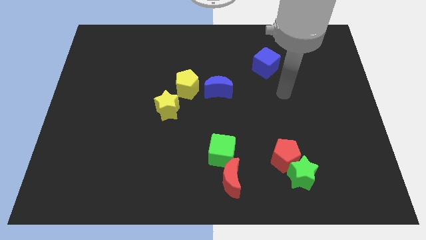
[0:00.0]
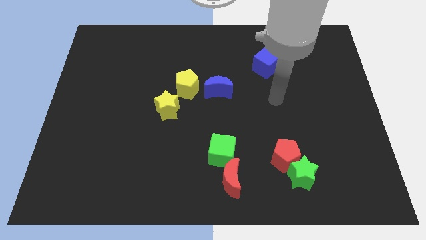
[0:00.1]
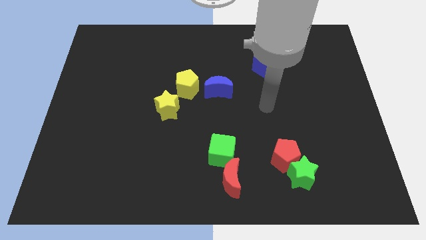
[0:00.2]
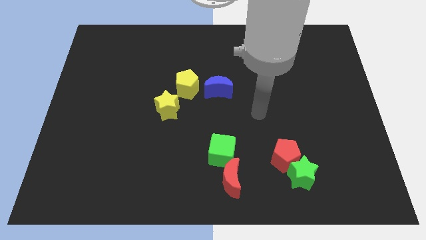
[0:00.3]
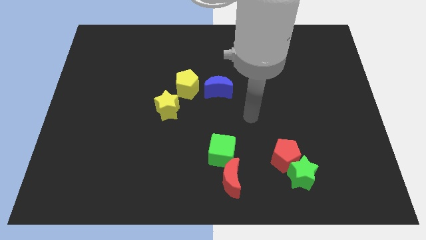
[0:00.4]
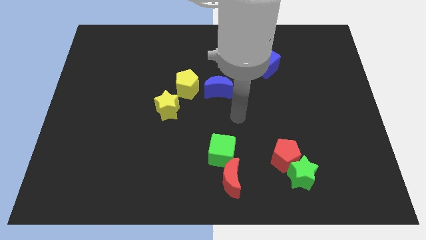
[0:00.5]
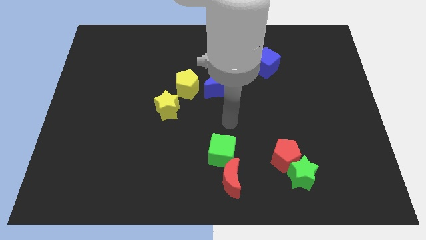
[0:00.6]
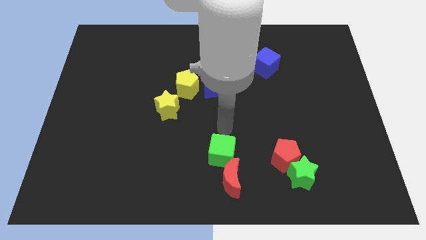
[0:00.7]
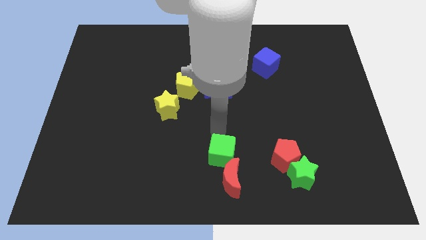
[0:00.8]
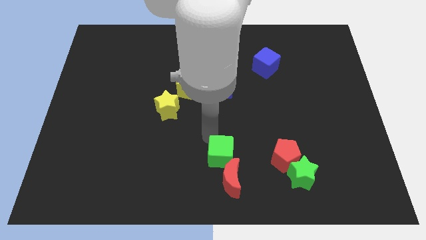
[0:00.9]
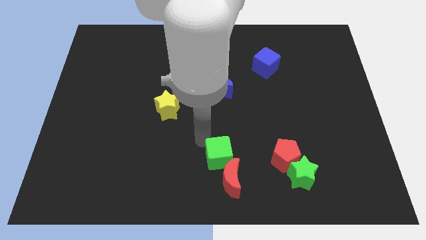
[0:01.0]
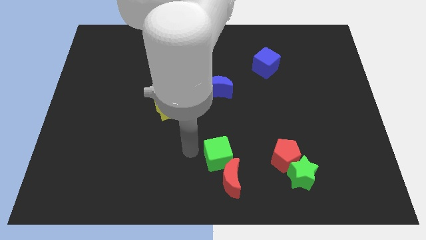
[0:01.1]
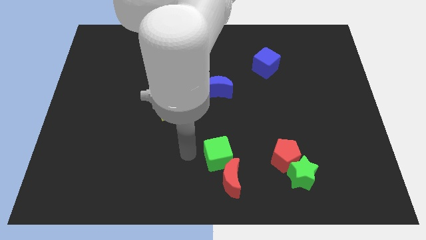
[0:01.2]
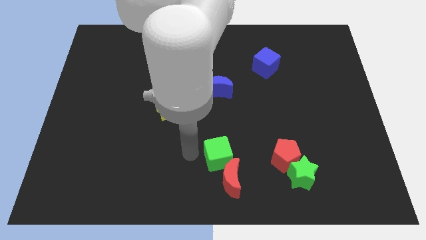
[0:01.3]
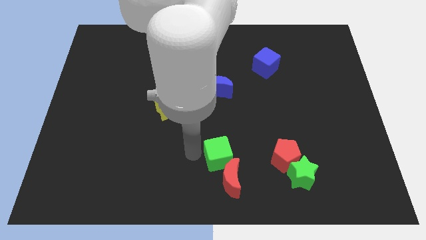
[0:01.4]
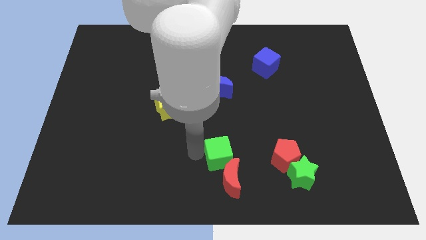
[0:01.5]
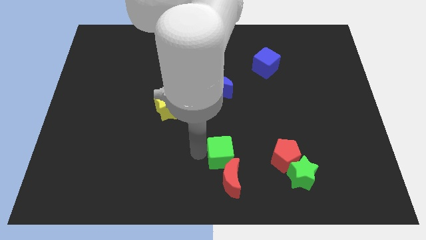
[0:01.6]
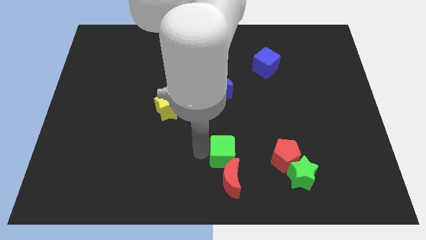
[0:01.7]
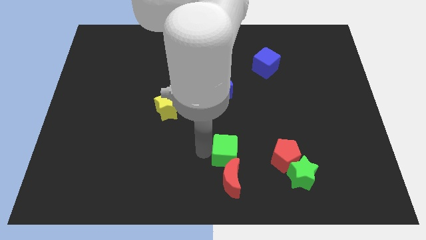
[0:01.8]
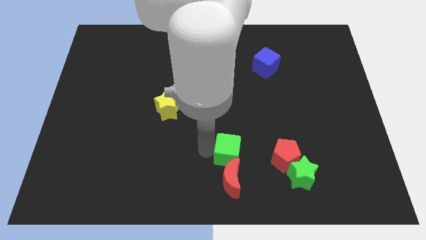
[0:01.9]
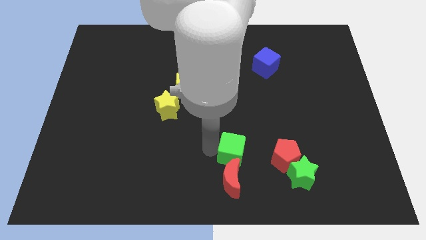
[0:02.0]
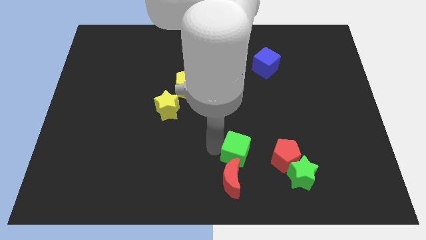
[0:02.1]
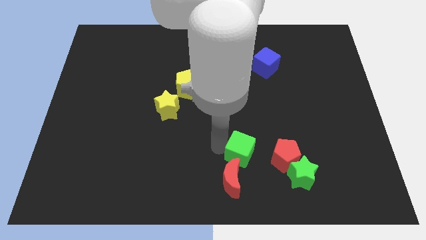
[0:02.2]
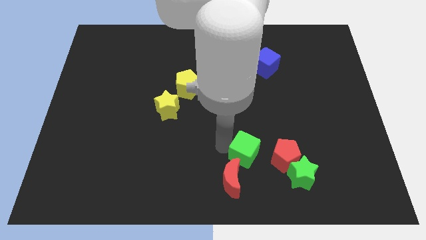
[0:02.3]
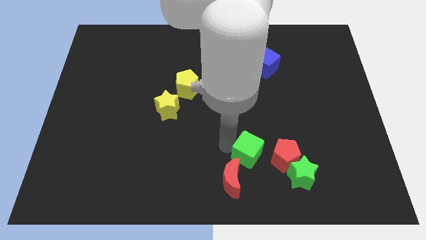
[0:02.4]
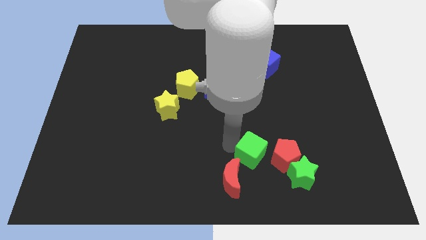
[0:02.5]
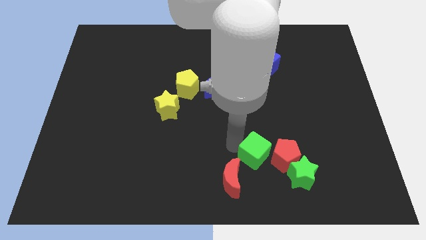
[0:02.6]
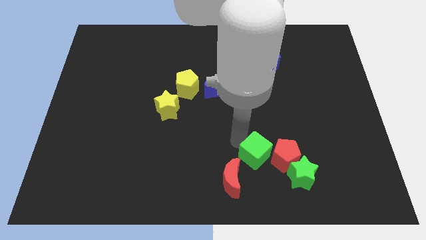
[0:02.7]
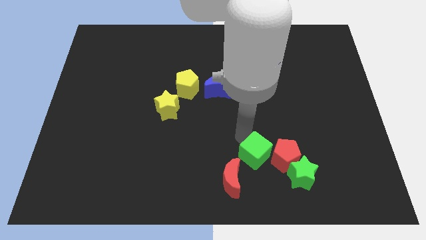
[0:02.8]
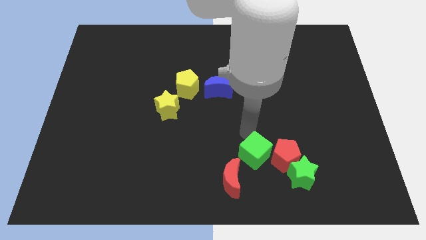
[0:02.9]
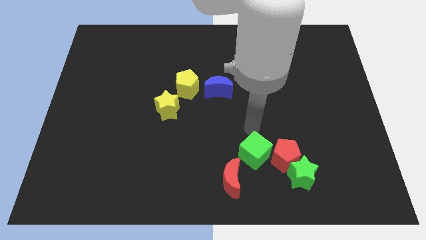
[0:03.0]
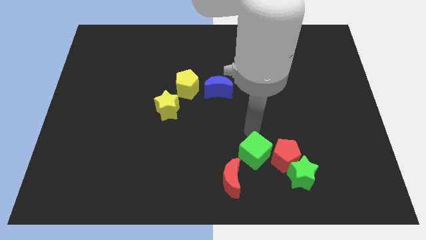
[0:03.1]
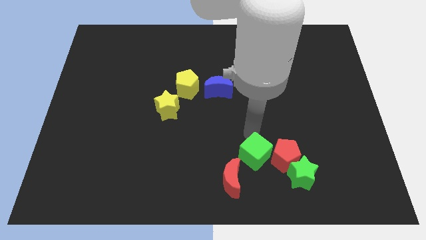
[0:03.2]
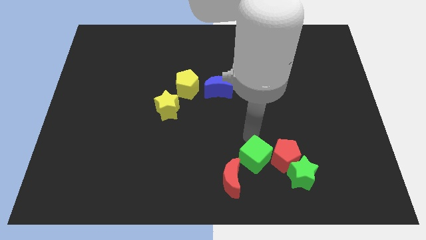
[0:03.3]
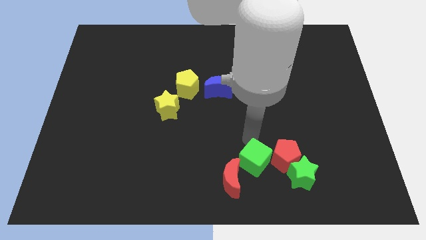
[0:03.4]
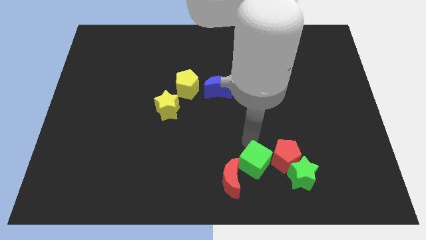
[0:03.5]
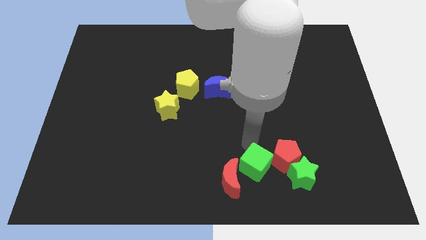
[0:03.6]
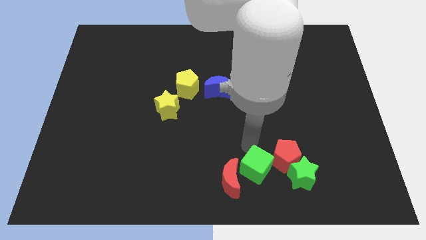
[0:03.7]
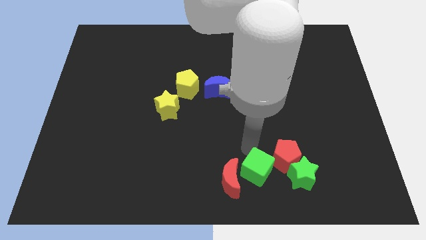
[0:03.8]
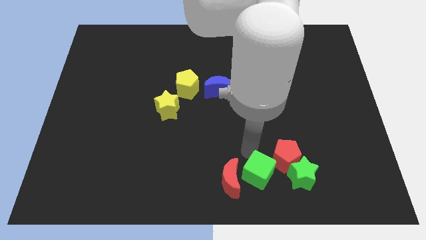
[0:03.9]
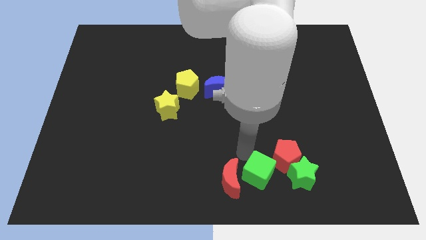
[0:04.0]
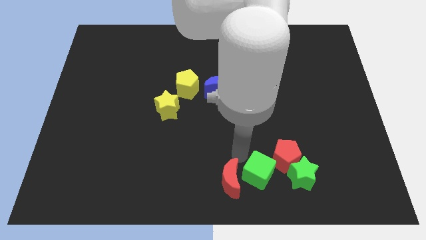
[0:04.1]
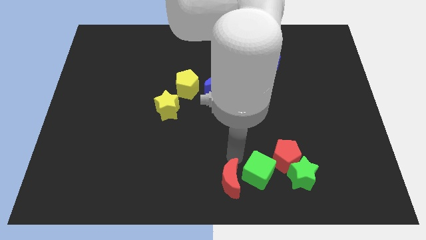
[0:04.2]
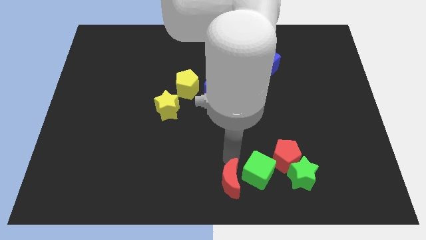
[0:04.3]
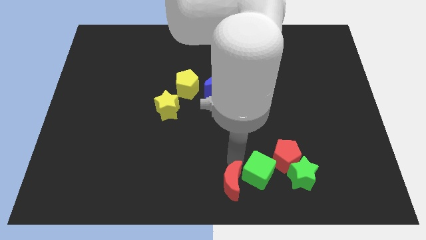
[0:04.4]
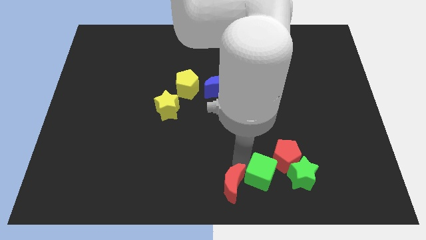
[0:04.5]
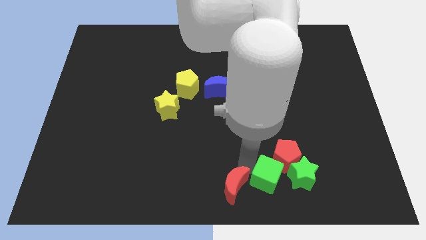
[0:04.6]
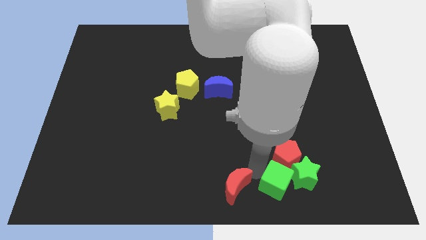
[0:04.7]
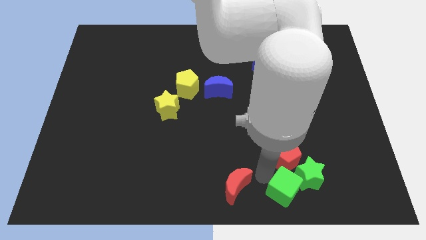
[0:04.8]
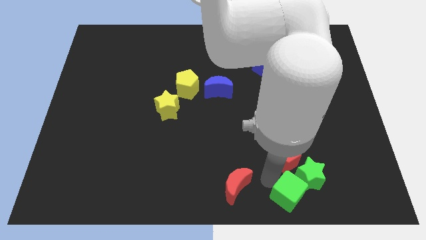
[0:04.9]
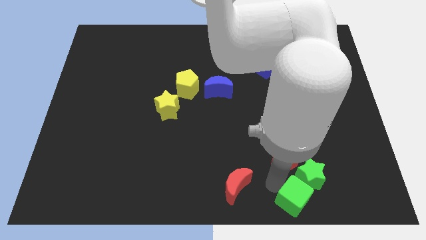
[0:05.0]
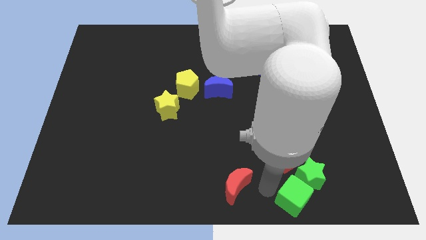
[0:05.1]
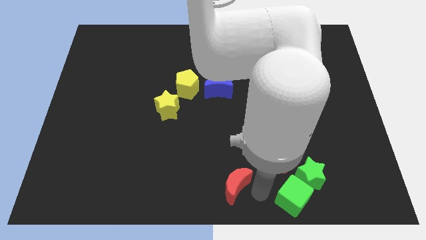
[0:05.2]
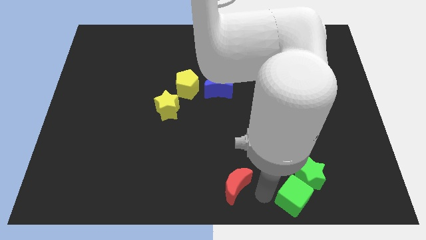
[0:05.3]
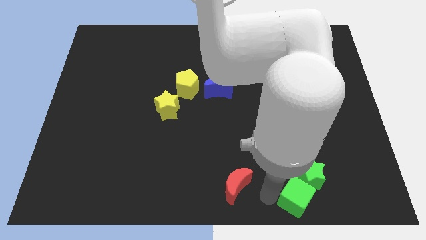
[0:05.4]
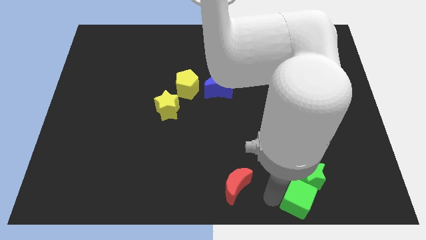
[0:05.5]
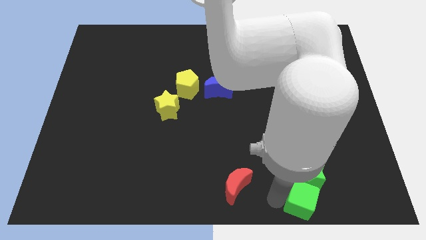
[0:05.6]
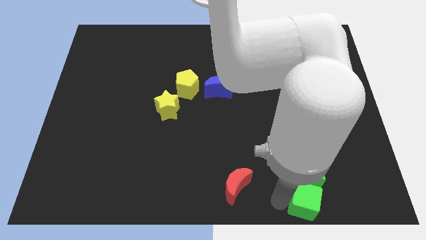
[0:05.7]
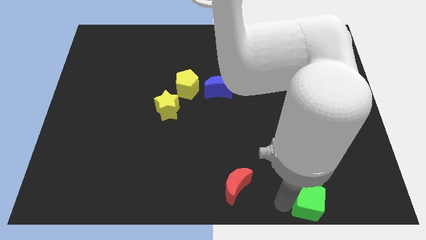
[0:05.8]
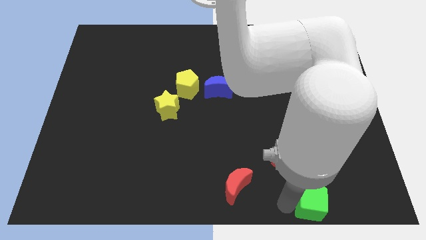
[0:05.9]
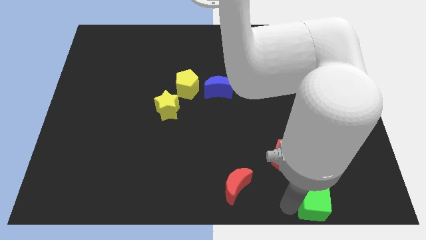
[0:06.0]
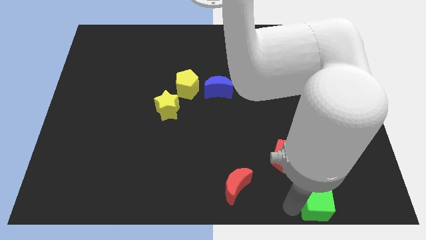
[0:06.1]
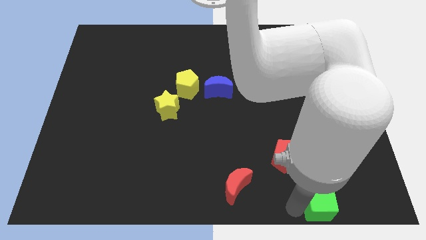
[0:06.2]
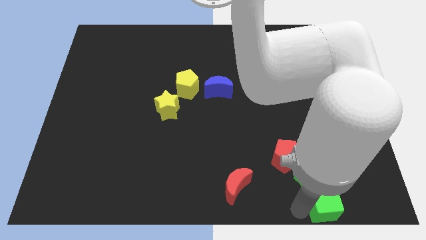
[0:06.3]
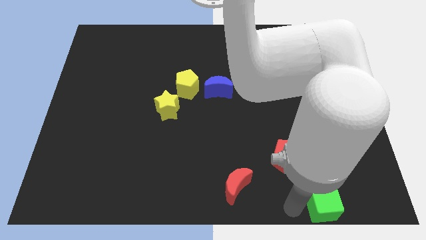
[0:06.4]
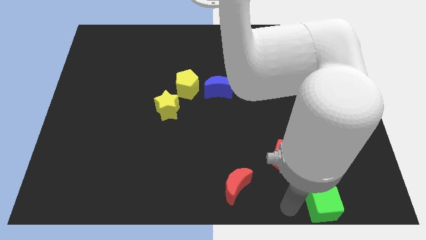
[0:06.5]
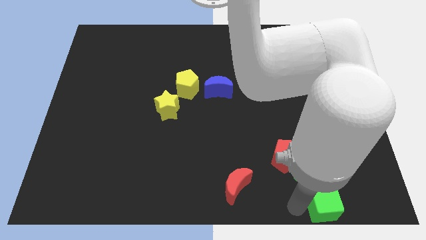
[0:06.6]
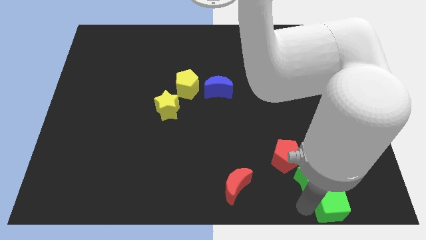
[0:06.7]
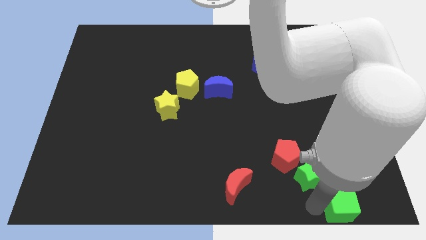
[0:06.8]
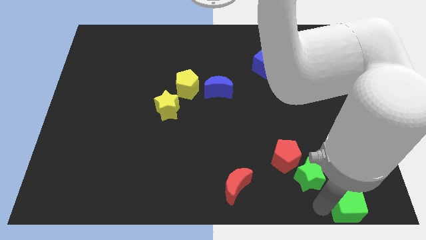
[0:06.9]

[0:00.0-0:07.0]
put the green cube to the bottom right of the board
